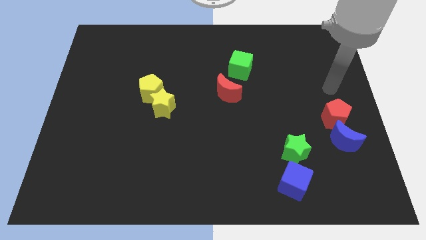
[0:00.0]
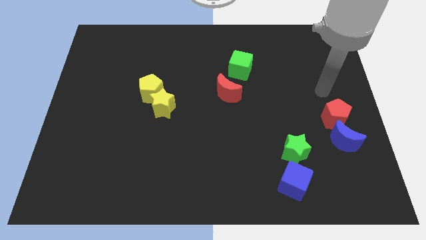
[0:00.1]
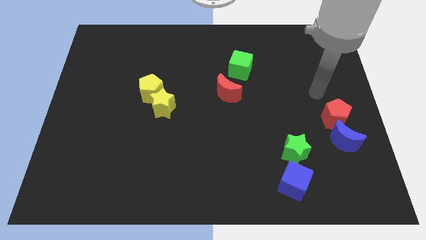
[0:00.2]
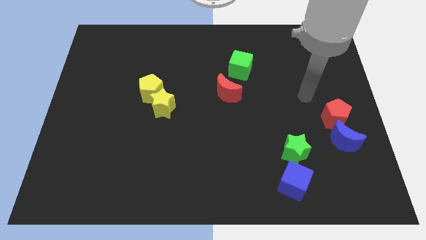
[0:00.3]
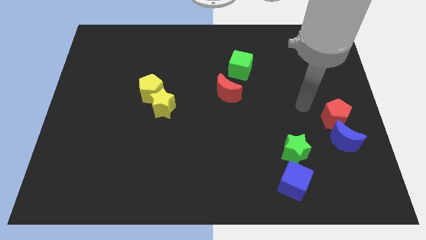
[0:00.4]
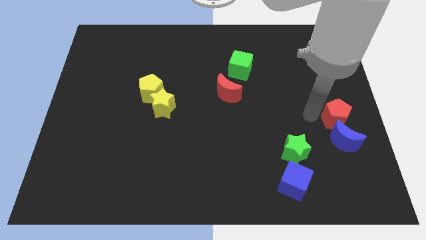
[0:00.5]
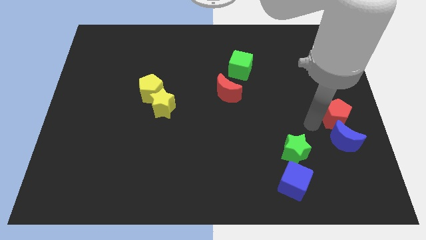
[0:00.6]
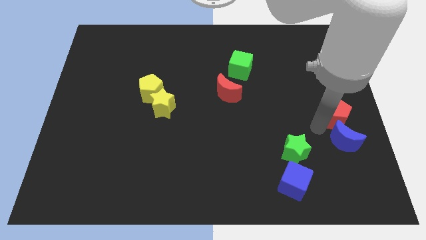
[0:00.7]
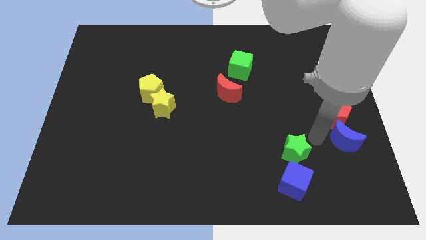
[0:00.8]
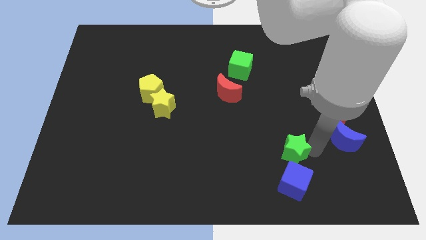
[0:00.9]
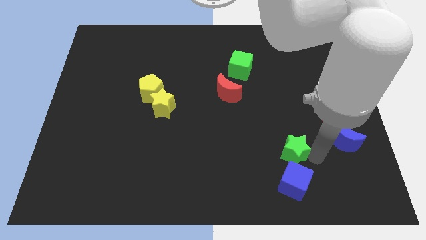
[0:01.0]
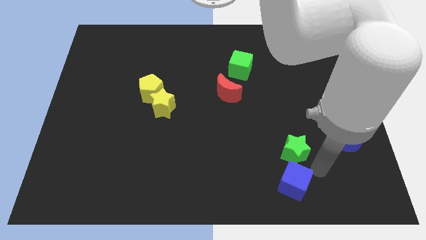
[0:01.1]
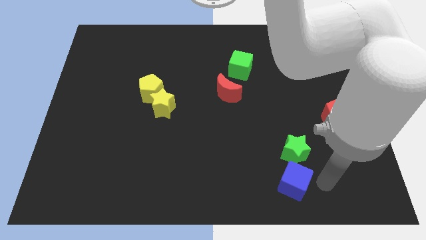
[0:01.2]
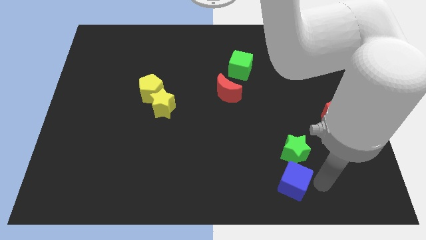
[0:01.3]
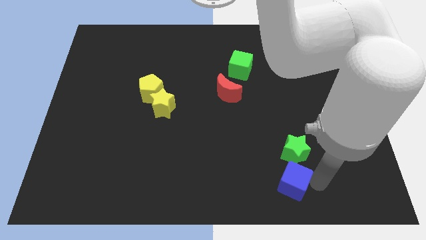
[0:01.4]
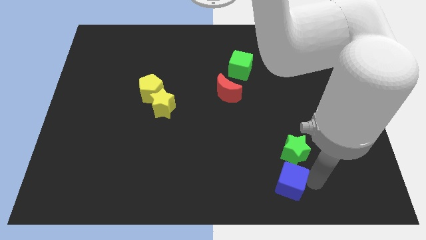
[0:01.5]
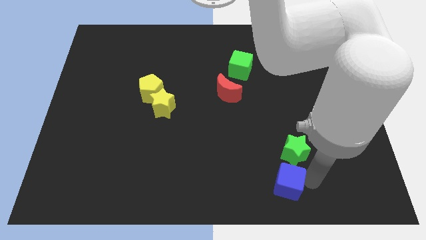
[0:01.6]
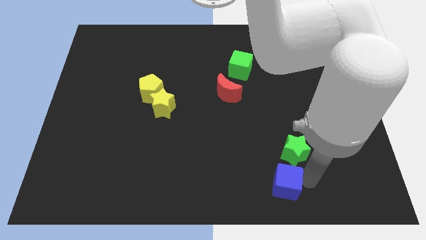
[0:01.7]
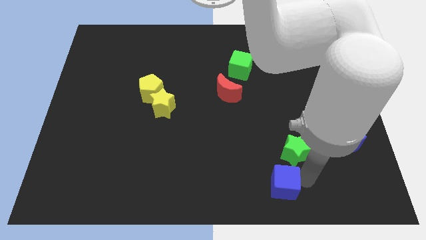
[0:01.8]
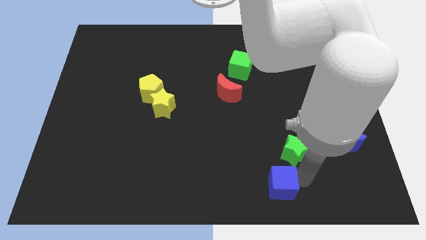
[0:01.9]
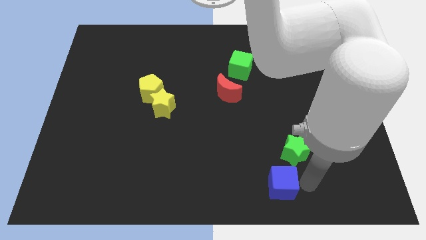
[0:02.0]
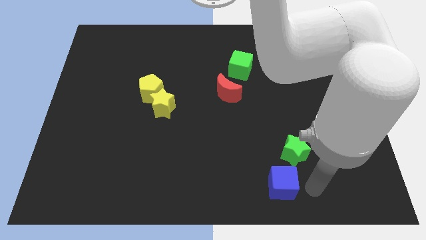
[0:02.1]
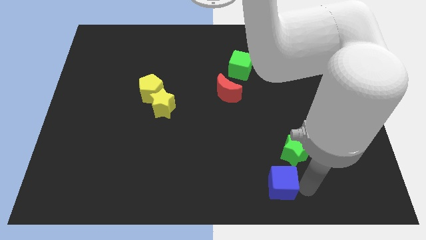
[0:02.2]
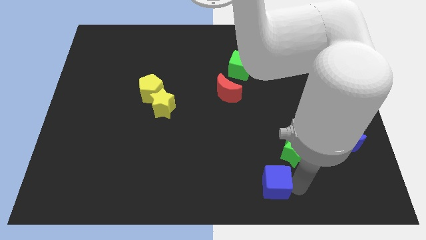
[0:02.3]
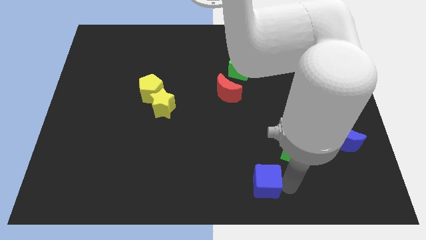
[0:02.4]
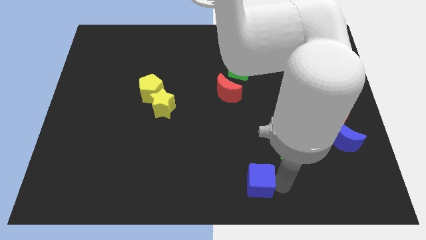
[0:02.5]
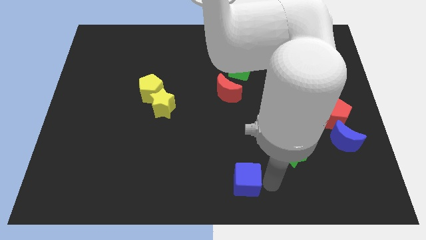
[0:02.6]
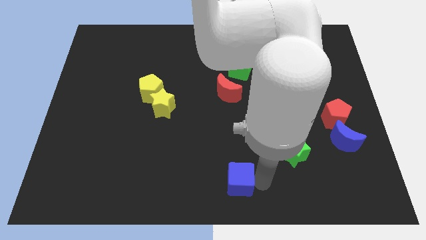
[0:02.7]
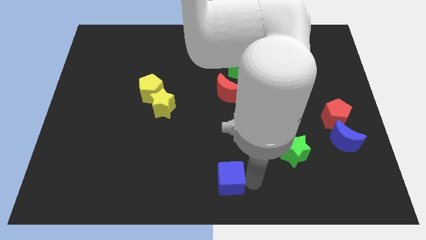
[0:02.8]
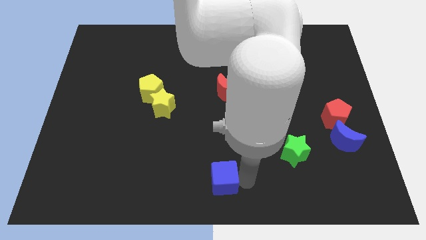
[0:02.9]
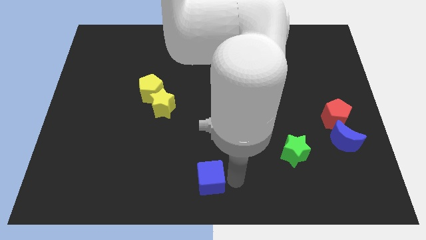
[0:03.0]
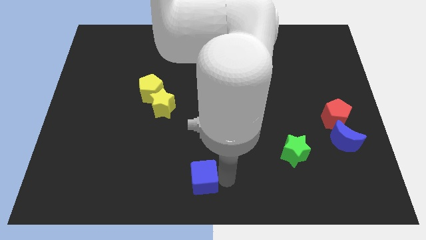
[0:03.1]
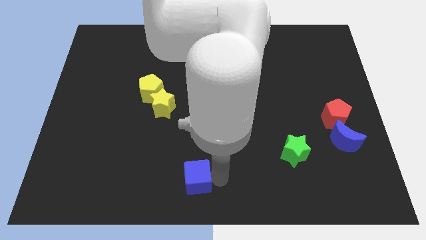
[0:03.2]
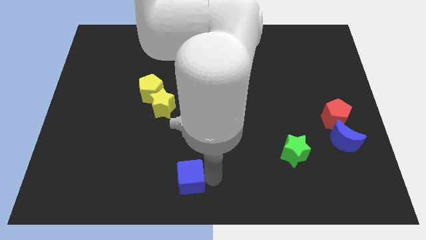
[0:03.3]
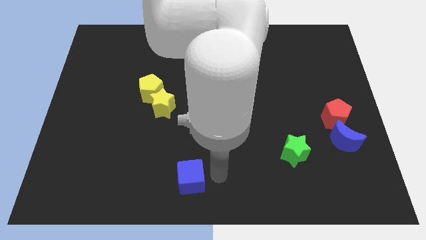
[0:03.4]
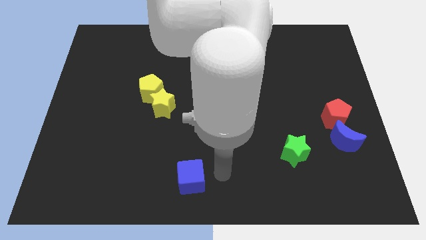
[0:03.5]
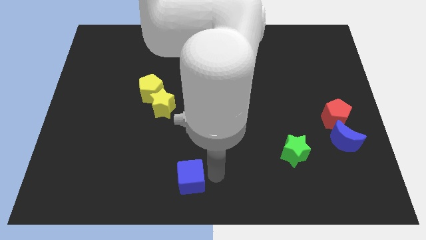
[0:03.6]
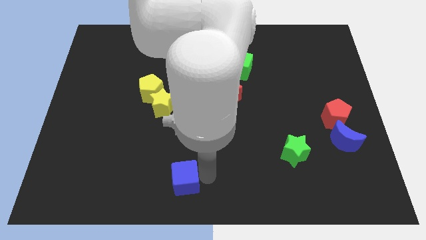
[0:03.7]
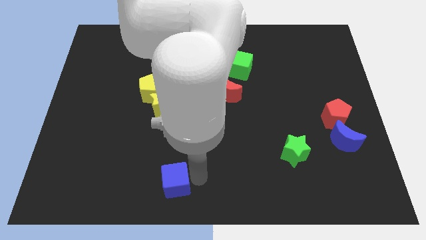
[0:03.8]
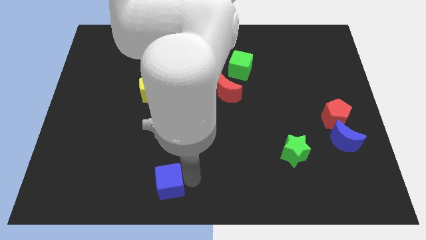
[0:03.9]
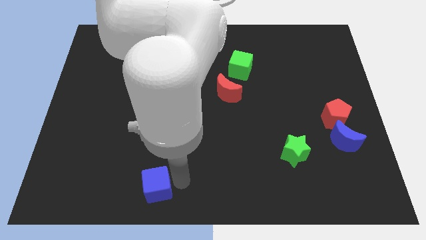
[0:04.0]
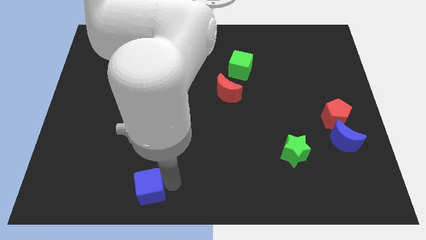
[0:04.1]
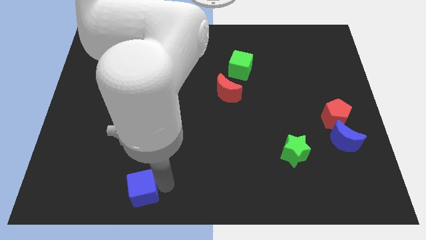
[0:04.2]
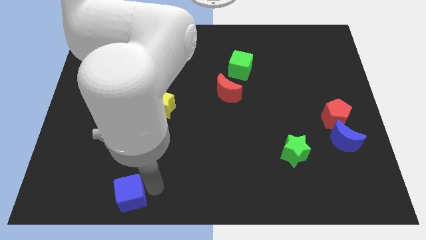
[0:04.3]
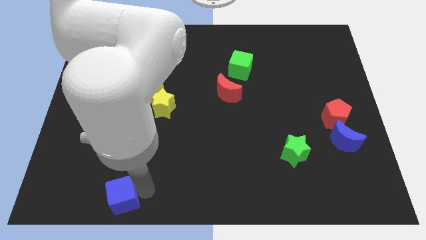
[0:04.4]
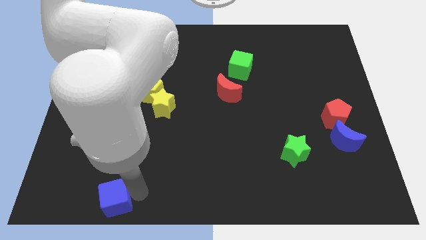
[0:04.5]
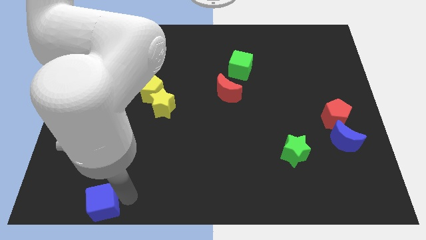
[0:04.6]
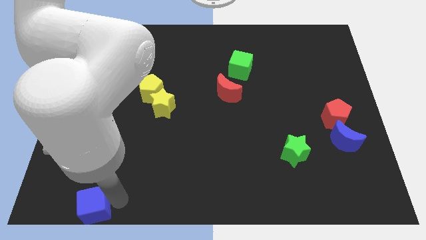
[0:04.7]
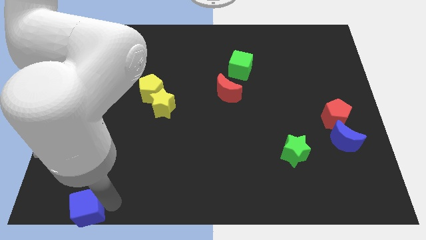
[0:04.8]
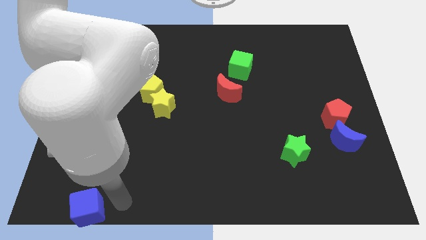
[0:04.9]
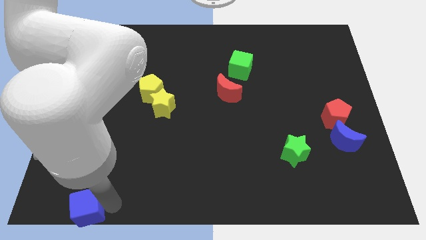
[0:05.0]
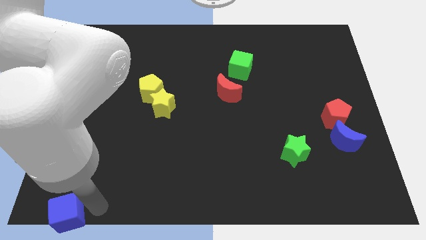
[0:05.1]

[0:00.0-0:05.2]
slide the blue cube to the bottom left of the board

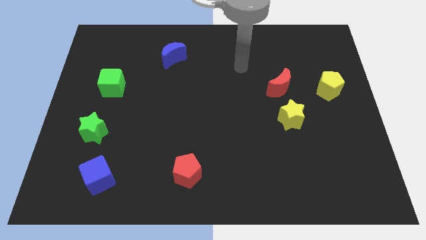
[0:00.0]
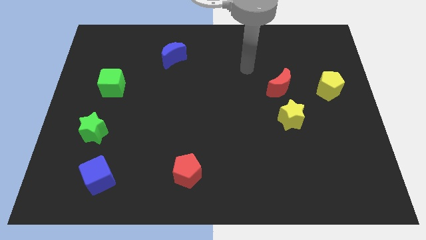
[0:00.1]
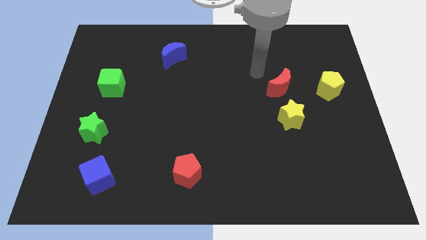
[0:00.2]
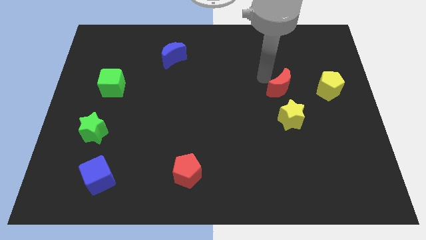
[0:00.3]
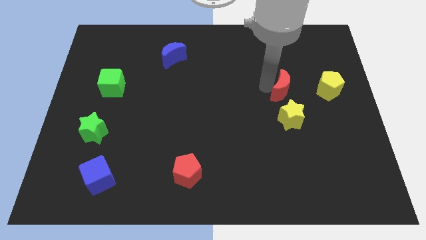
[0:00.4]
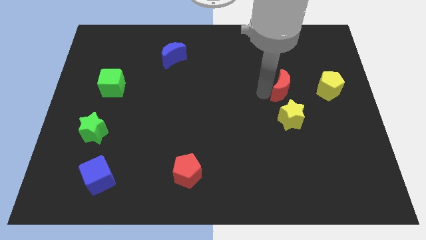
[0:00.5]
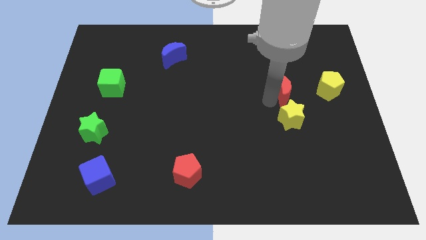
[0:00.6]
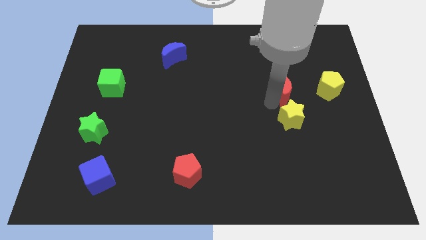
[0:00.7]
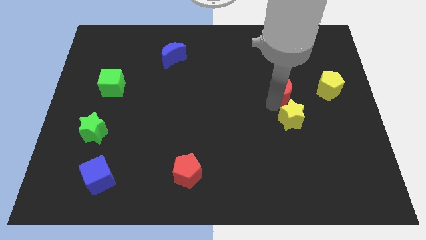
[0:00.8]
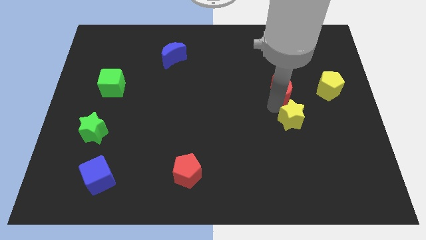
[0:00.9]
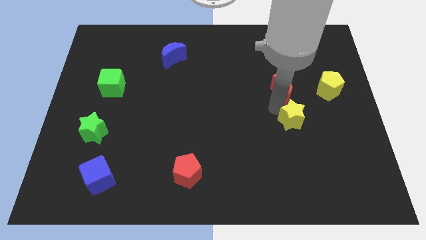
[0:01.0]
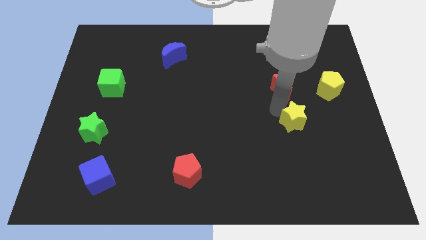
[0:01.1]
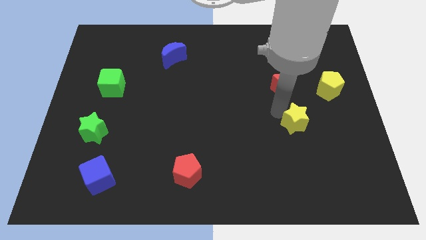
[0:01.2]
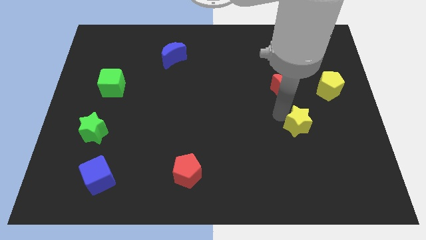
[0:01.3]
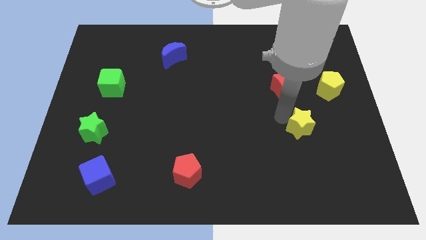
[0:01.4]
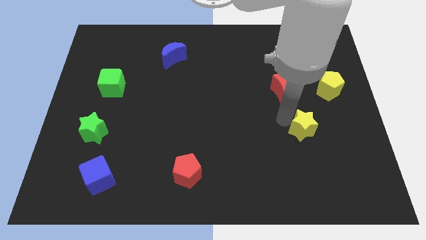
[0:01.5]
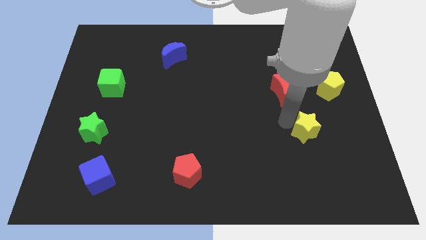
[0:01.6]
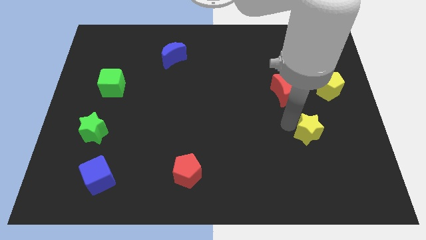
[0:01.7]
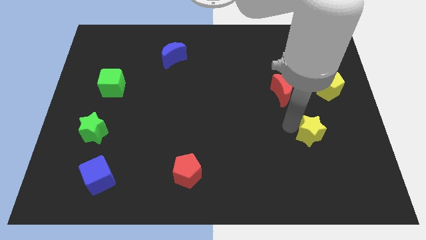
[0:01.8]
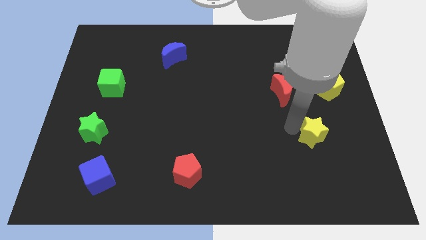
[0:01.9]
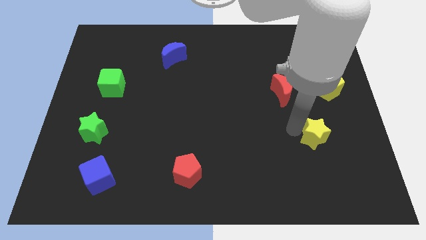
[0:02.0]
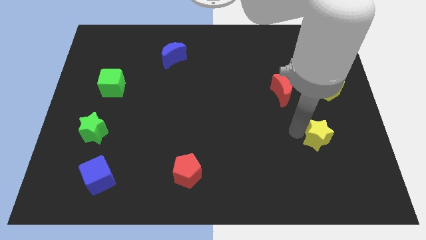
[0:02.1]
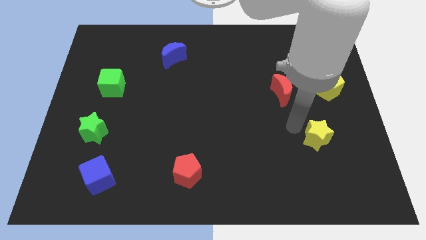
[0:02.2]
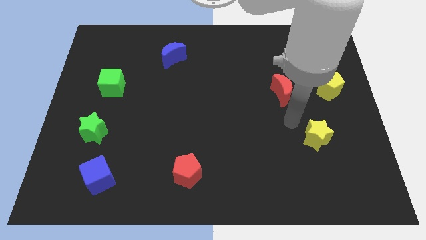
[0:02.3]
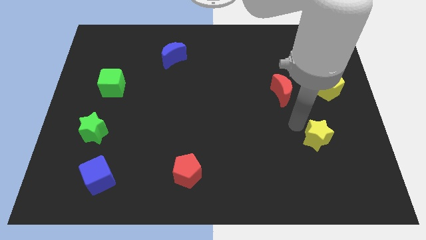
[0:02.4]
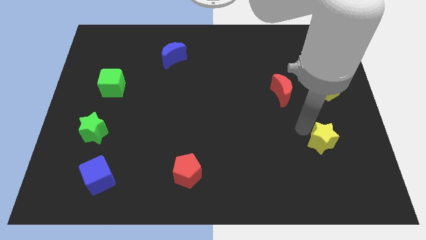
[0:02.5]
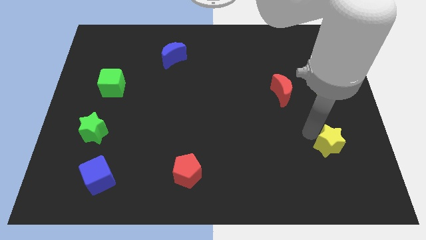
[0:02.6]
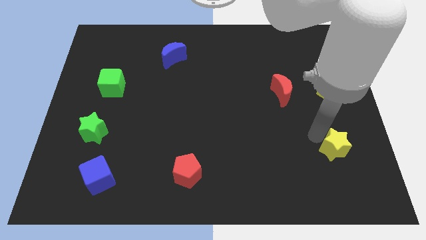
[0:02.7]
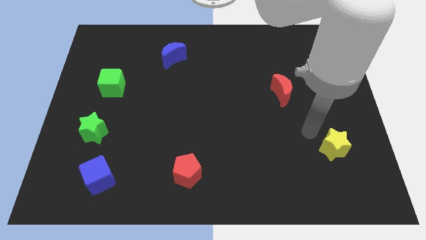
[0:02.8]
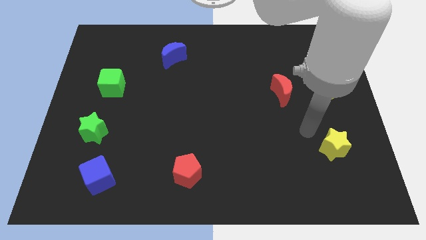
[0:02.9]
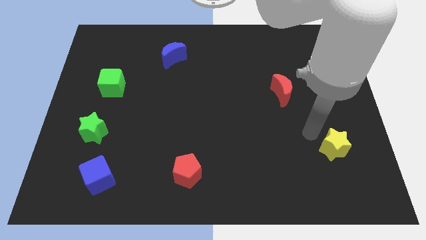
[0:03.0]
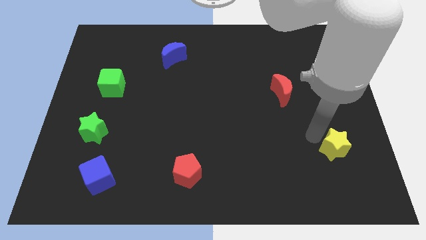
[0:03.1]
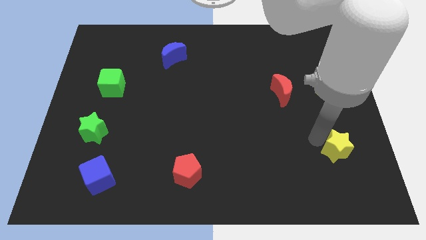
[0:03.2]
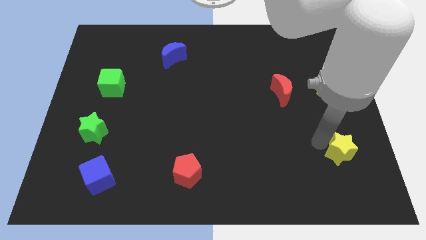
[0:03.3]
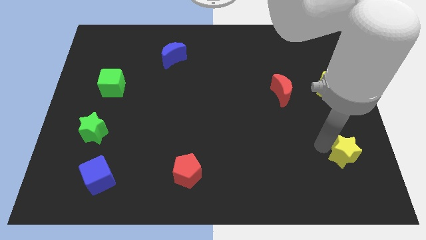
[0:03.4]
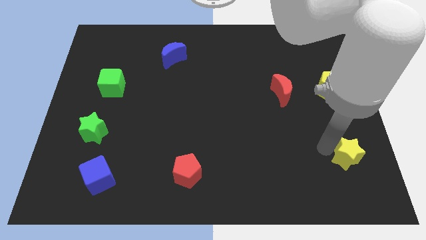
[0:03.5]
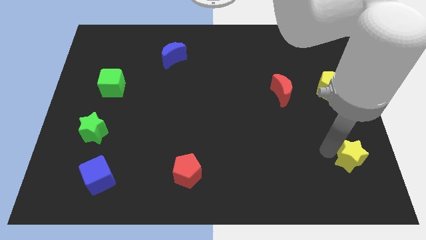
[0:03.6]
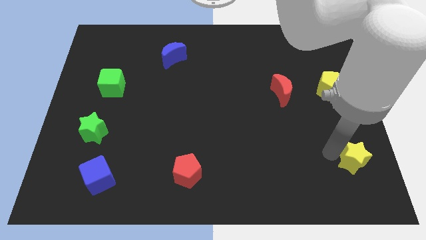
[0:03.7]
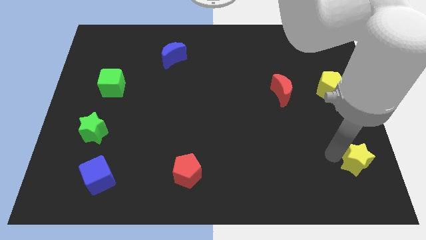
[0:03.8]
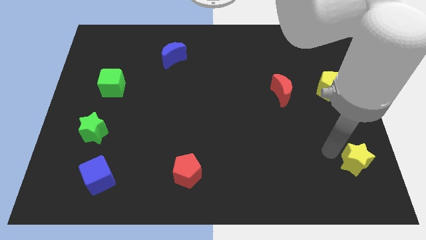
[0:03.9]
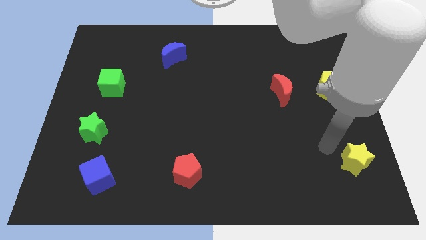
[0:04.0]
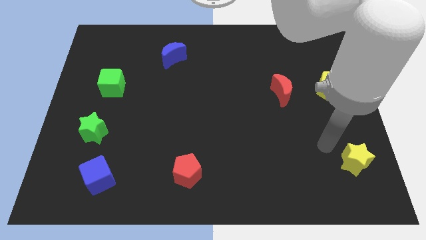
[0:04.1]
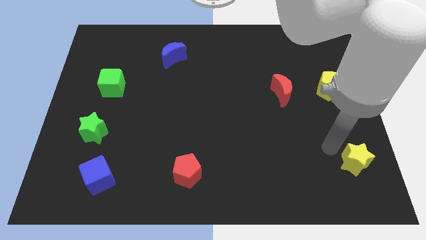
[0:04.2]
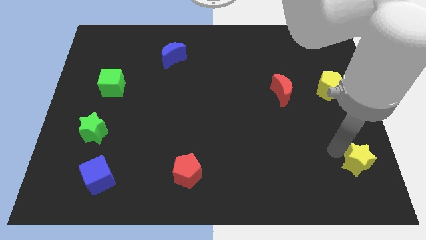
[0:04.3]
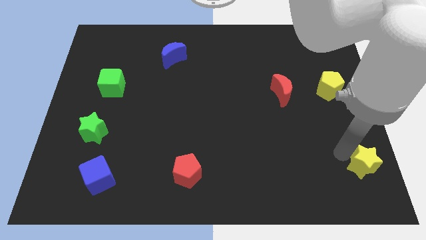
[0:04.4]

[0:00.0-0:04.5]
move the yellow star to the bottom right
